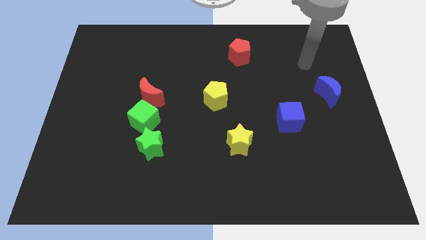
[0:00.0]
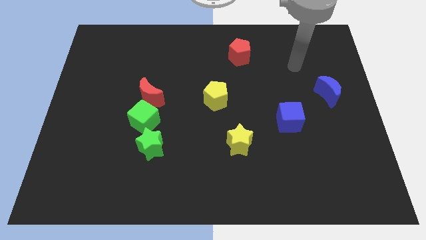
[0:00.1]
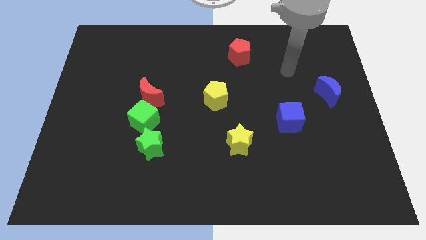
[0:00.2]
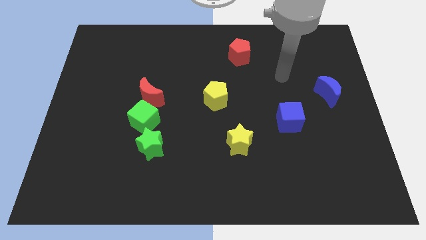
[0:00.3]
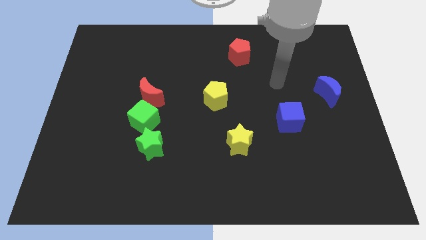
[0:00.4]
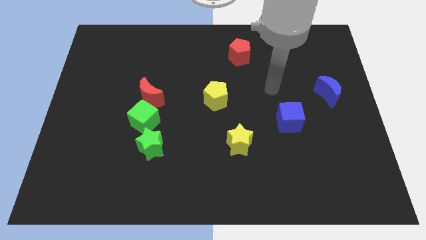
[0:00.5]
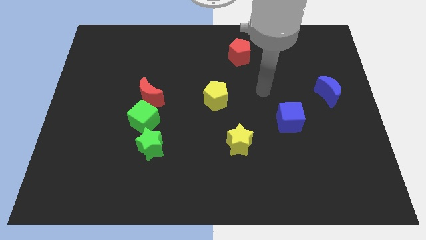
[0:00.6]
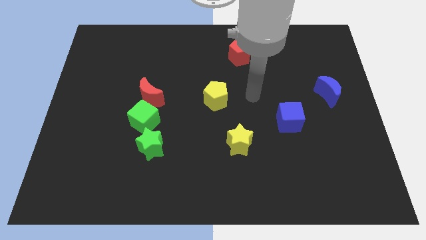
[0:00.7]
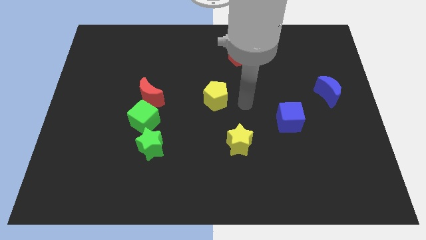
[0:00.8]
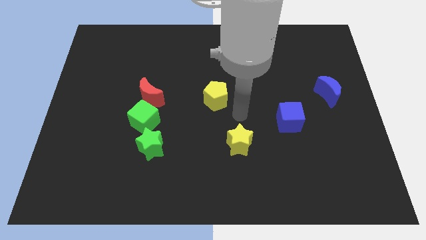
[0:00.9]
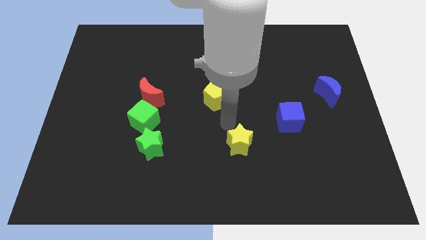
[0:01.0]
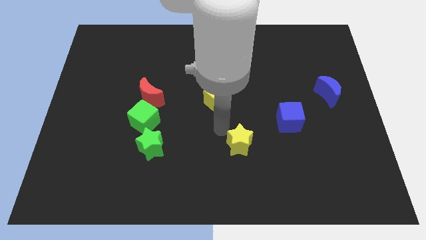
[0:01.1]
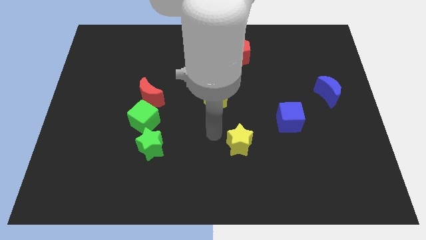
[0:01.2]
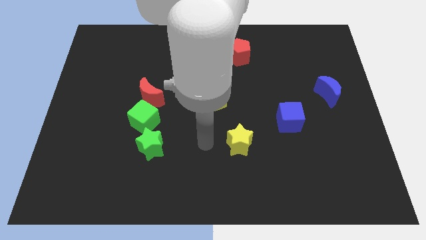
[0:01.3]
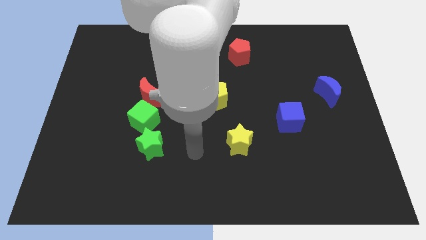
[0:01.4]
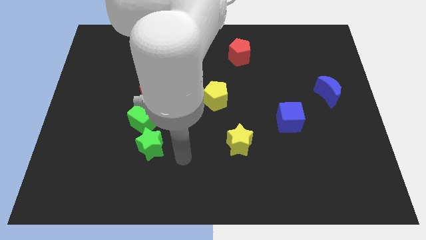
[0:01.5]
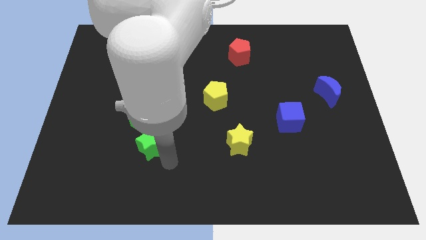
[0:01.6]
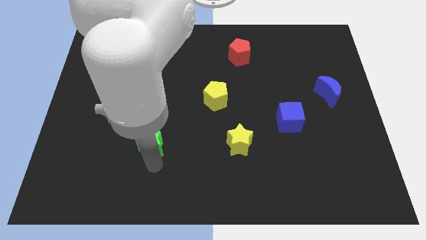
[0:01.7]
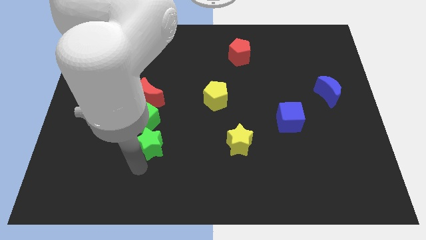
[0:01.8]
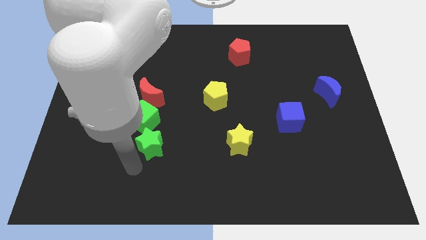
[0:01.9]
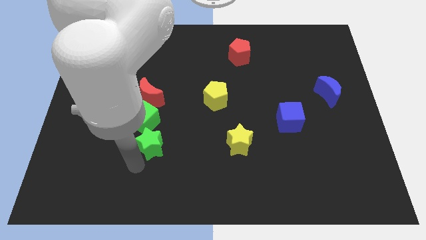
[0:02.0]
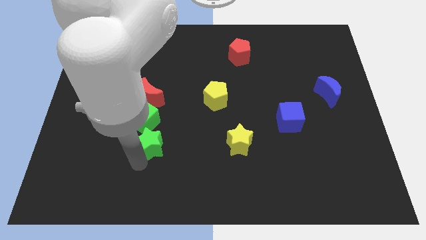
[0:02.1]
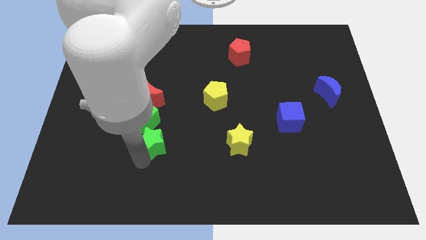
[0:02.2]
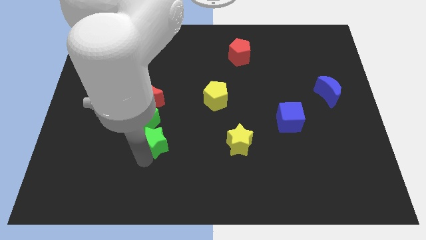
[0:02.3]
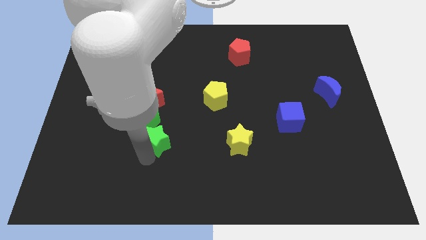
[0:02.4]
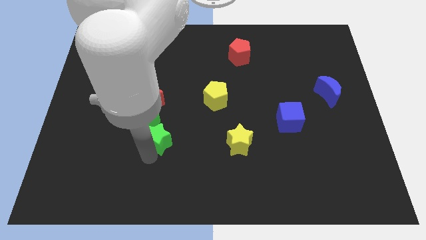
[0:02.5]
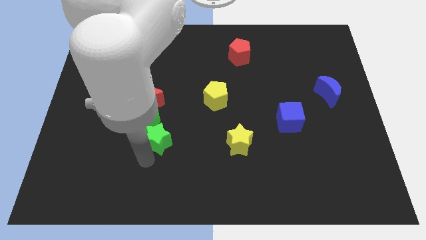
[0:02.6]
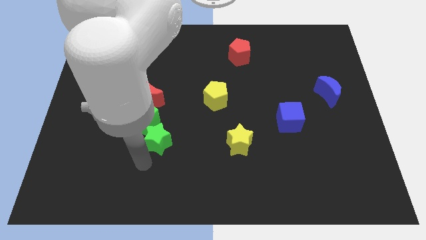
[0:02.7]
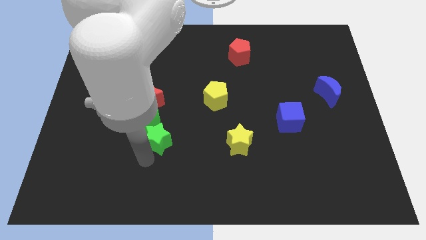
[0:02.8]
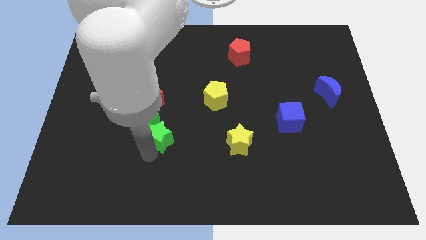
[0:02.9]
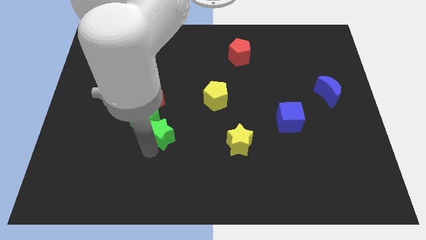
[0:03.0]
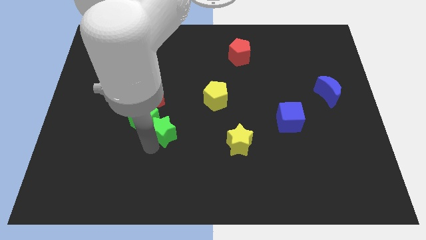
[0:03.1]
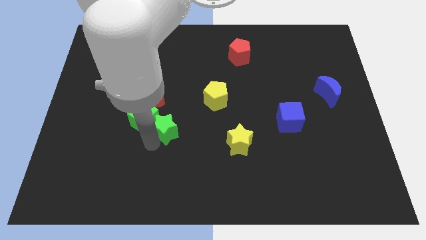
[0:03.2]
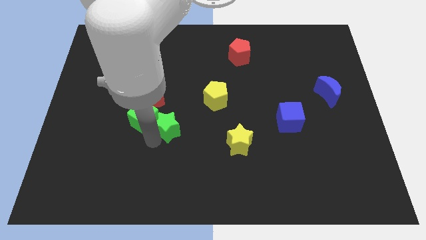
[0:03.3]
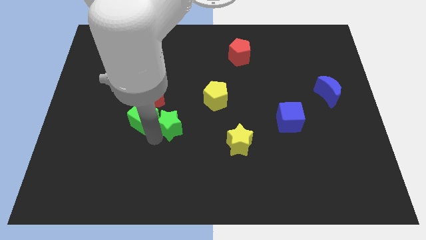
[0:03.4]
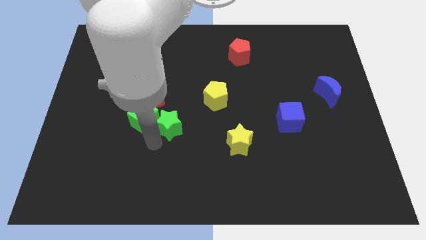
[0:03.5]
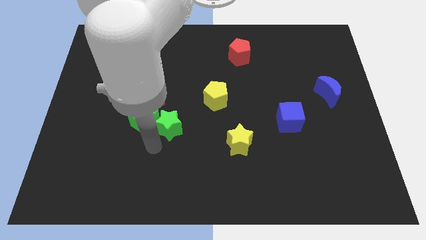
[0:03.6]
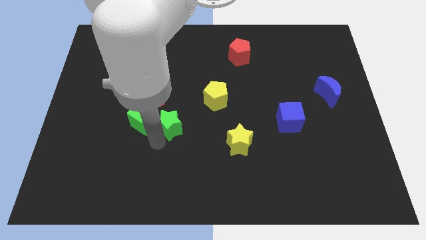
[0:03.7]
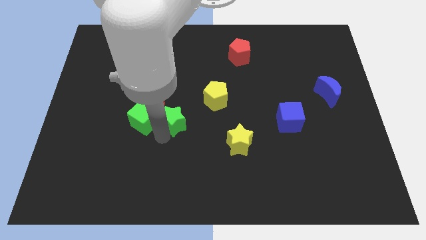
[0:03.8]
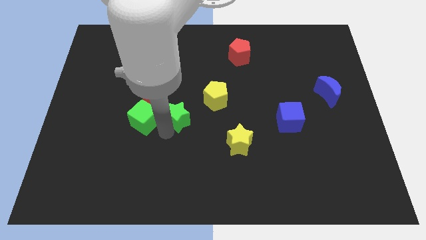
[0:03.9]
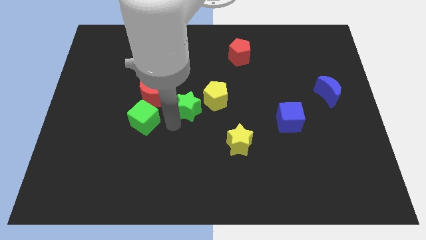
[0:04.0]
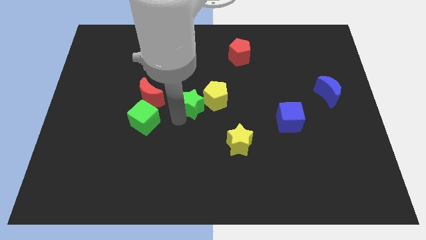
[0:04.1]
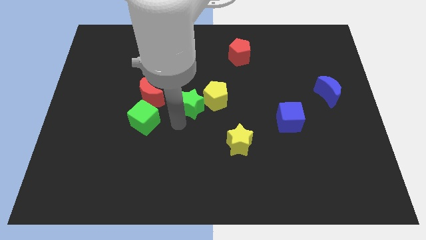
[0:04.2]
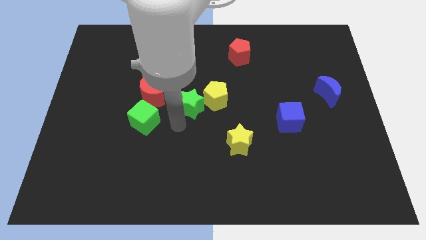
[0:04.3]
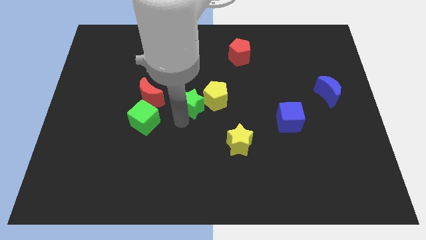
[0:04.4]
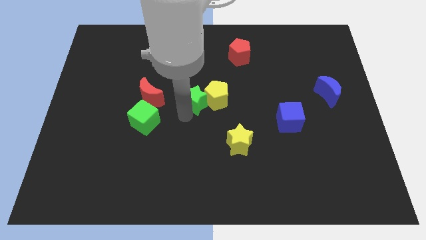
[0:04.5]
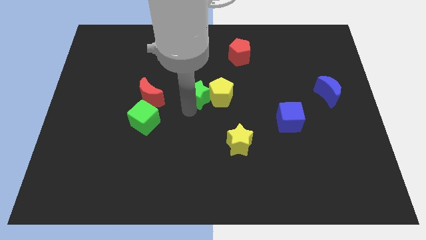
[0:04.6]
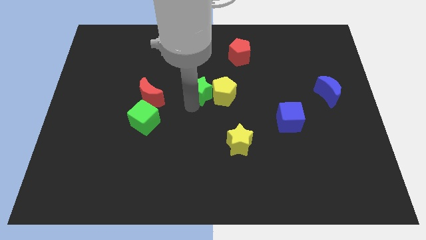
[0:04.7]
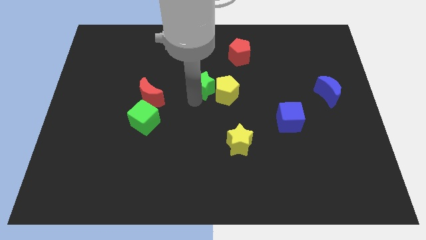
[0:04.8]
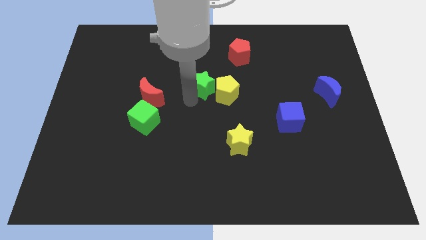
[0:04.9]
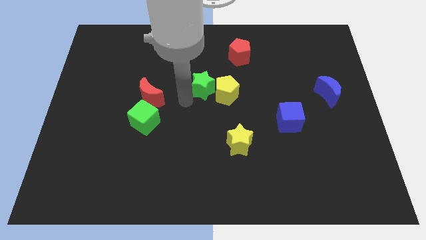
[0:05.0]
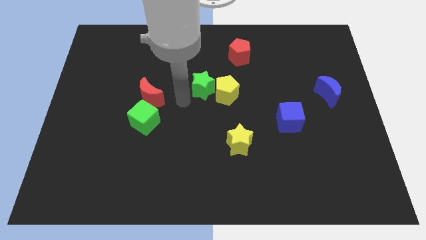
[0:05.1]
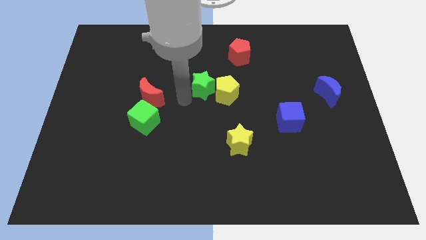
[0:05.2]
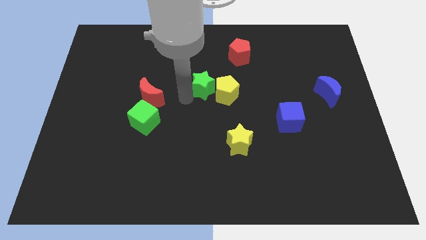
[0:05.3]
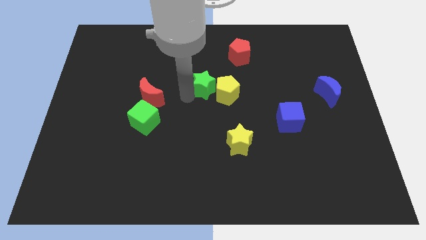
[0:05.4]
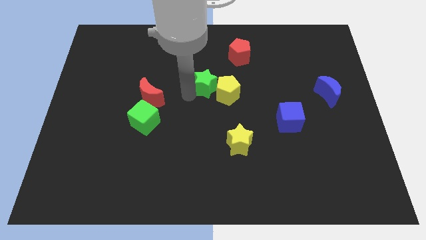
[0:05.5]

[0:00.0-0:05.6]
slide the green star upwards and then to the right

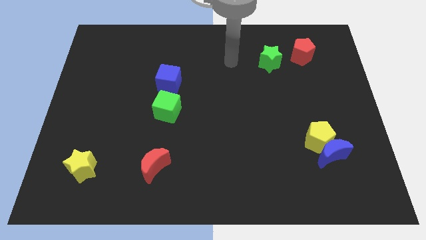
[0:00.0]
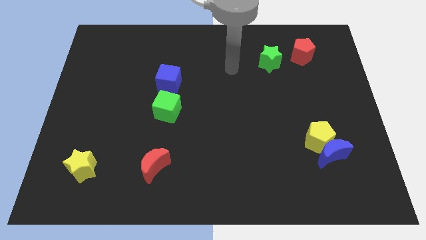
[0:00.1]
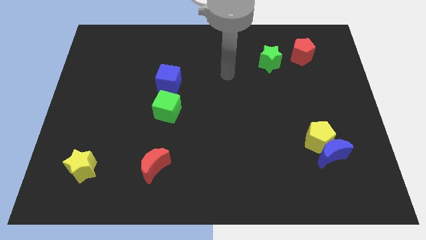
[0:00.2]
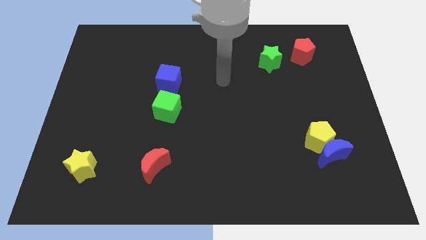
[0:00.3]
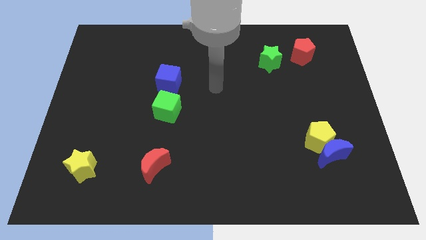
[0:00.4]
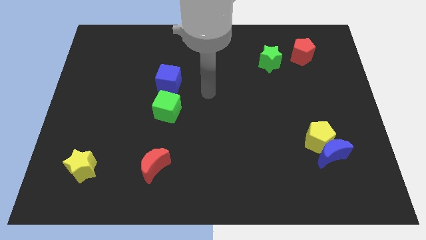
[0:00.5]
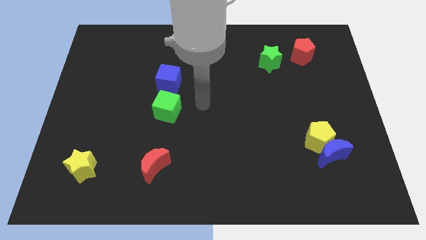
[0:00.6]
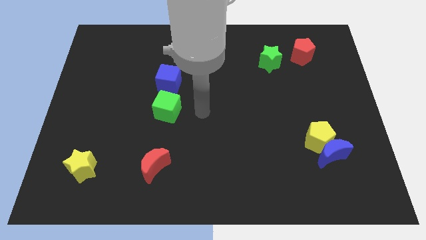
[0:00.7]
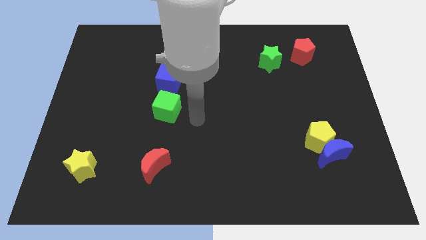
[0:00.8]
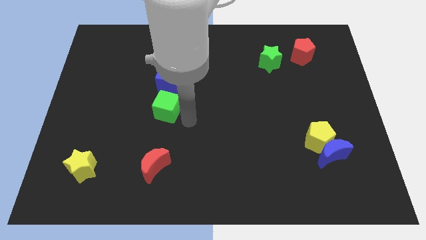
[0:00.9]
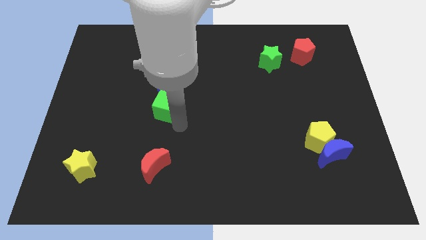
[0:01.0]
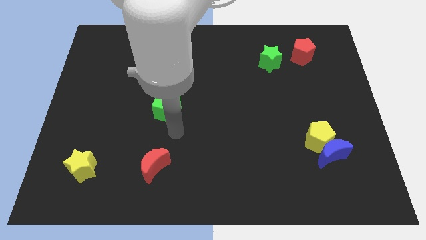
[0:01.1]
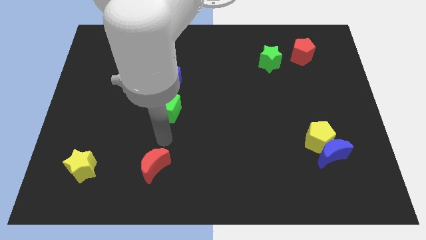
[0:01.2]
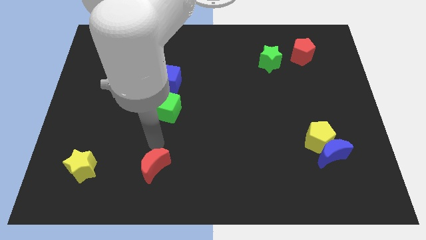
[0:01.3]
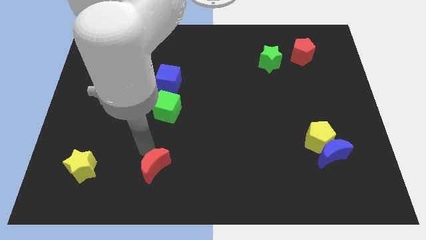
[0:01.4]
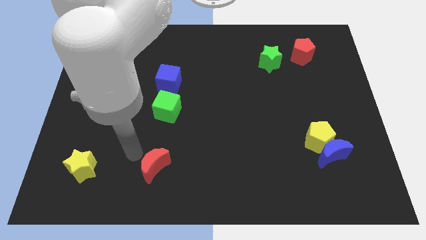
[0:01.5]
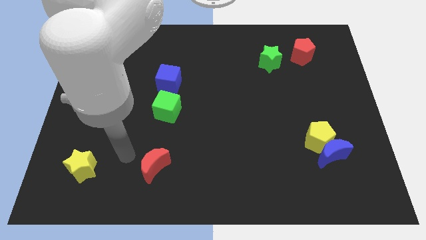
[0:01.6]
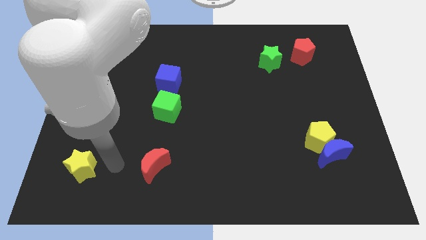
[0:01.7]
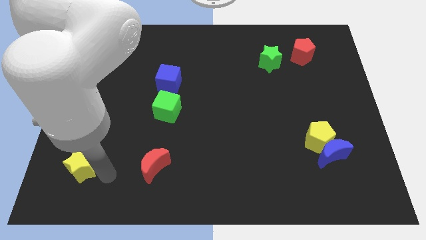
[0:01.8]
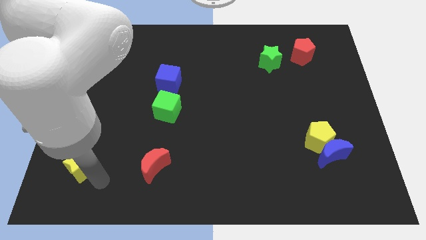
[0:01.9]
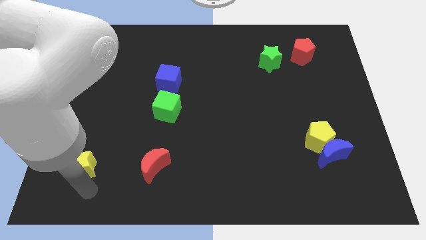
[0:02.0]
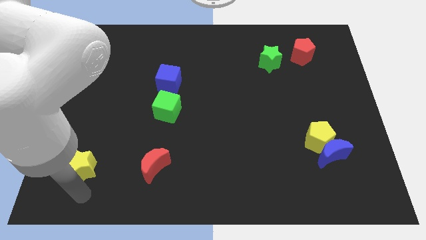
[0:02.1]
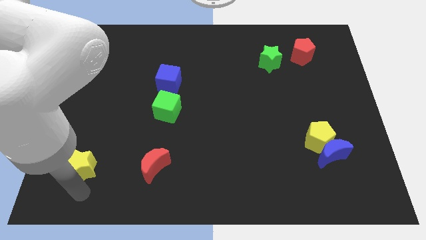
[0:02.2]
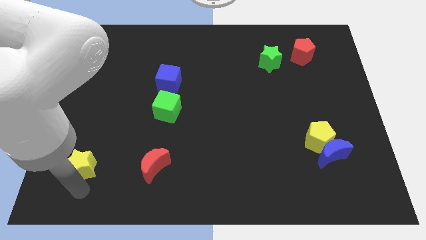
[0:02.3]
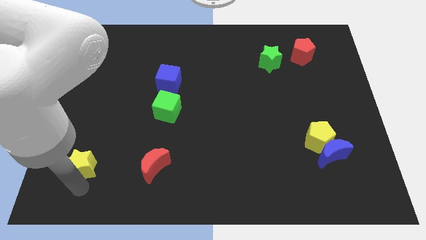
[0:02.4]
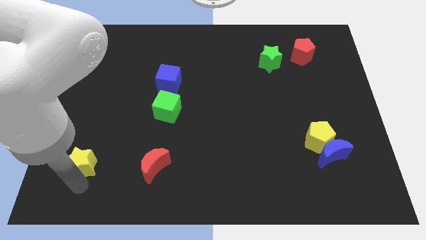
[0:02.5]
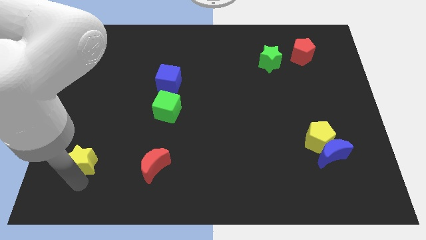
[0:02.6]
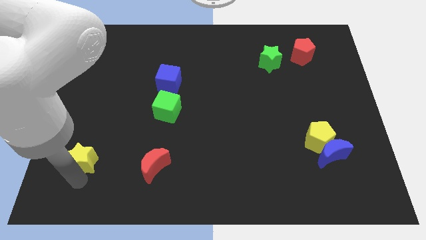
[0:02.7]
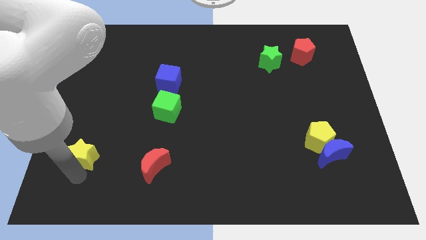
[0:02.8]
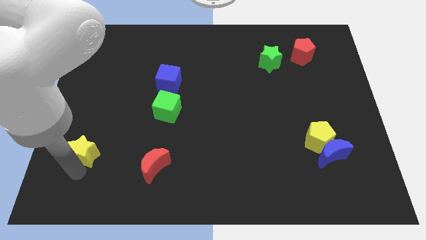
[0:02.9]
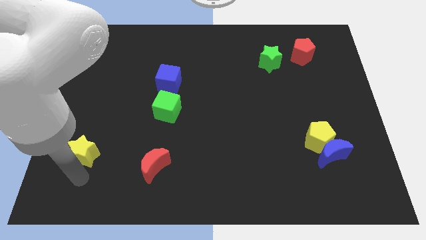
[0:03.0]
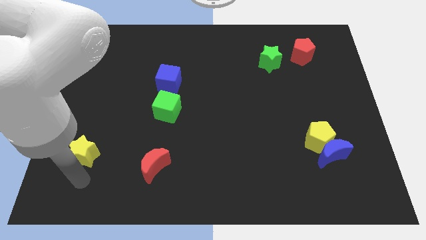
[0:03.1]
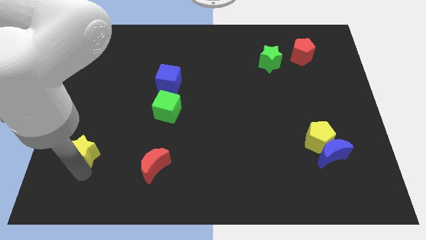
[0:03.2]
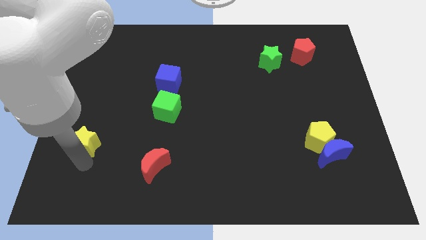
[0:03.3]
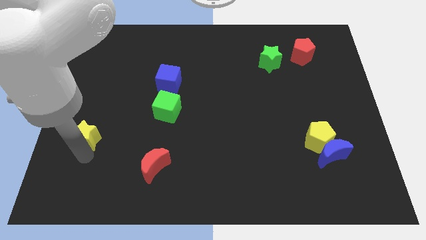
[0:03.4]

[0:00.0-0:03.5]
slightly slide the yellow star up
